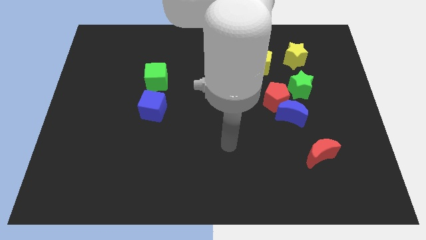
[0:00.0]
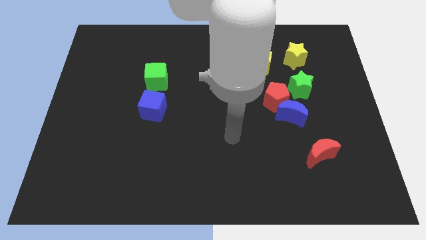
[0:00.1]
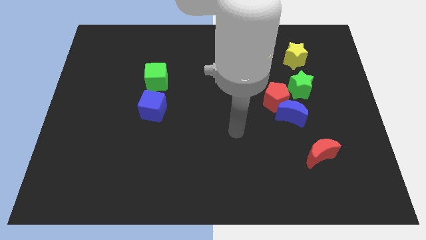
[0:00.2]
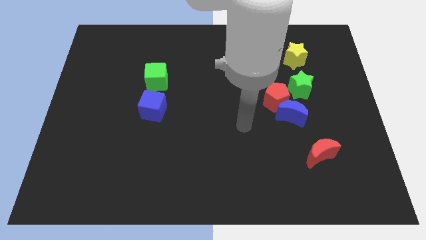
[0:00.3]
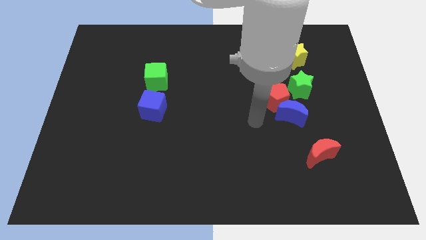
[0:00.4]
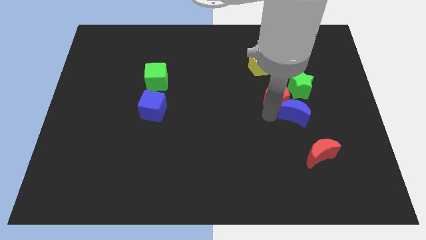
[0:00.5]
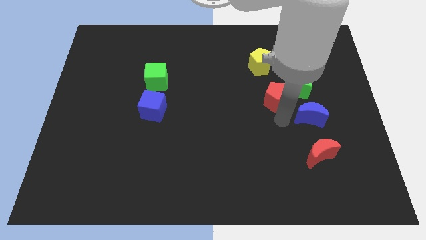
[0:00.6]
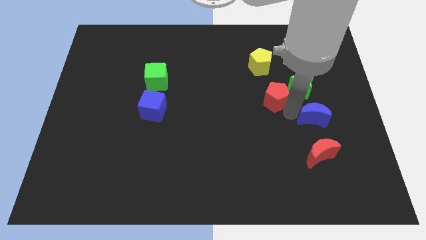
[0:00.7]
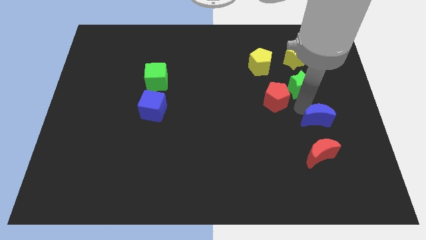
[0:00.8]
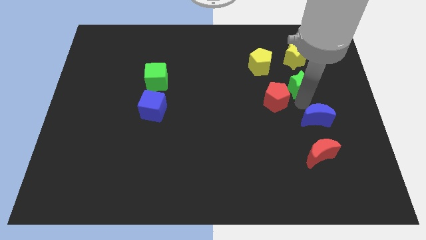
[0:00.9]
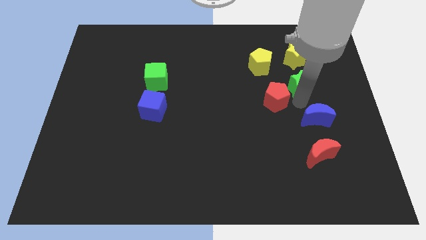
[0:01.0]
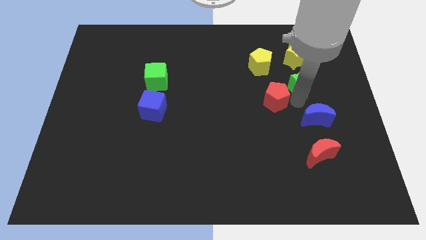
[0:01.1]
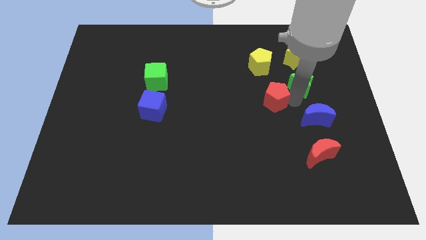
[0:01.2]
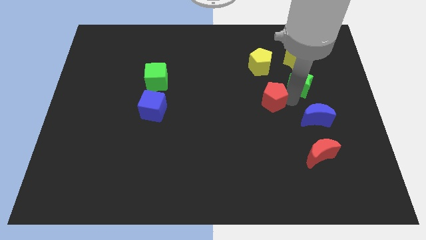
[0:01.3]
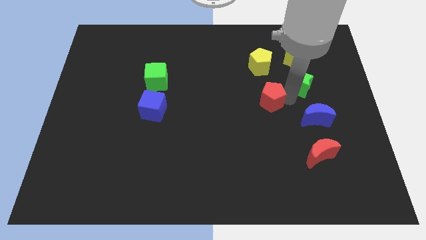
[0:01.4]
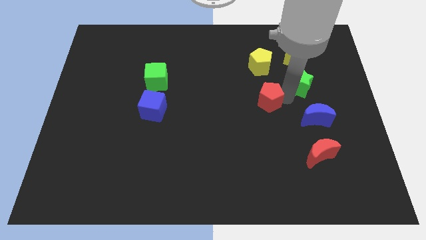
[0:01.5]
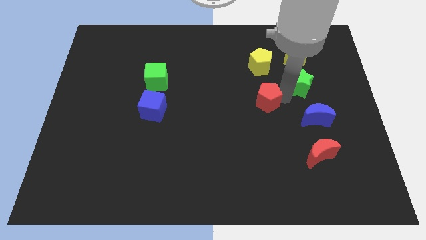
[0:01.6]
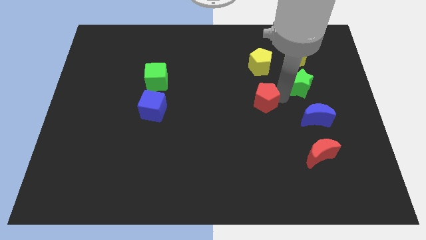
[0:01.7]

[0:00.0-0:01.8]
separate the red pentagon from the blue moon and green star

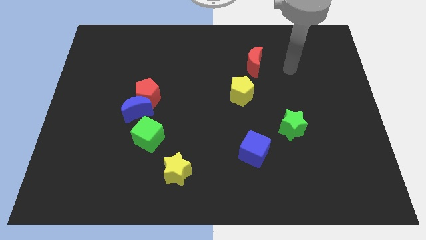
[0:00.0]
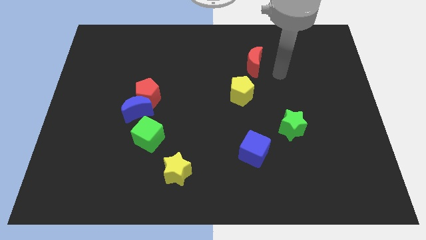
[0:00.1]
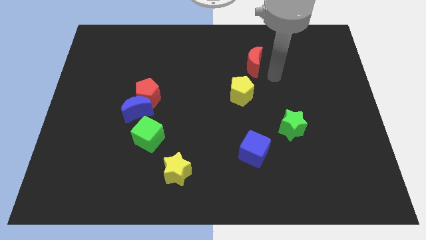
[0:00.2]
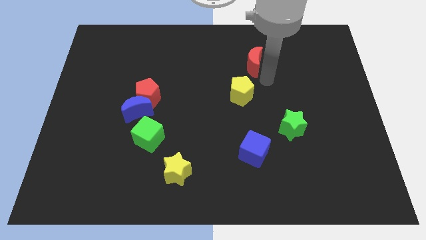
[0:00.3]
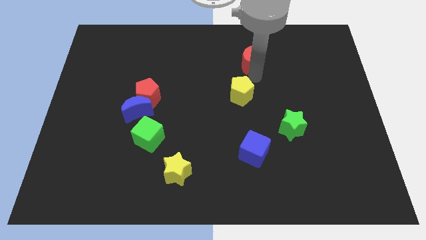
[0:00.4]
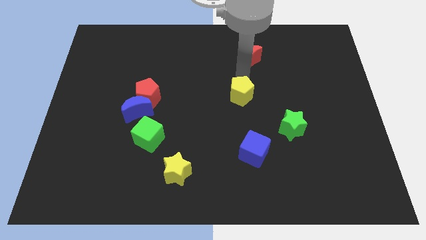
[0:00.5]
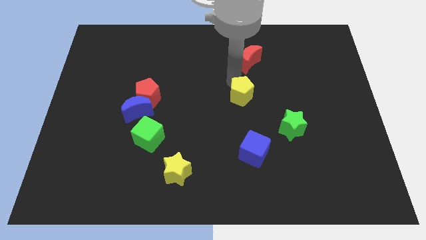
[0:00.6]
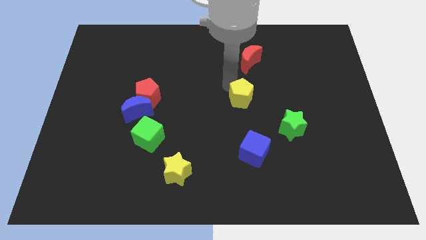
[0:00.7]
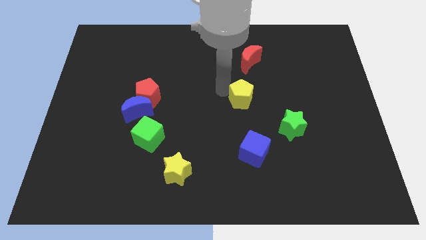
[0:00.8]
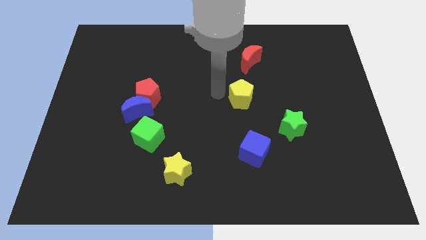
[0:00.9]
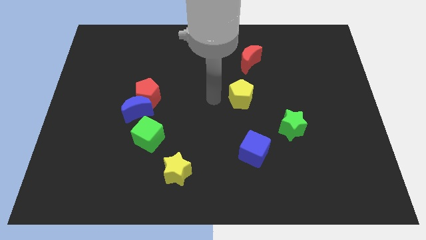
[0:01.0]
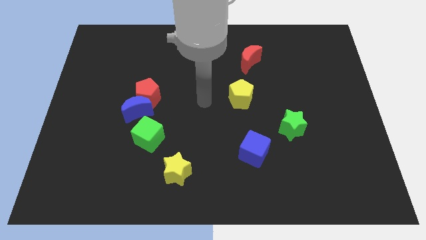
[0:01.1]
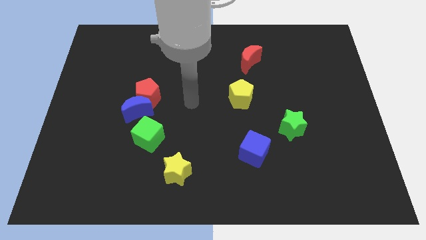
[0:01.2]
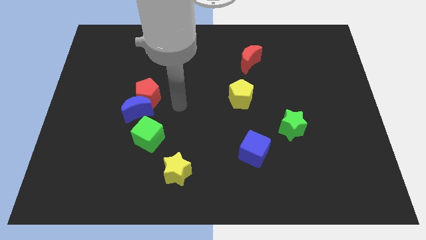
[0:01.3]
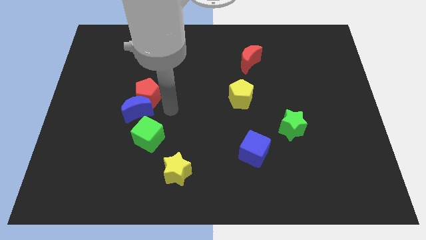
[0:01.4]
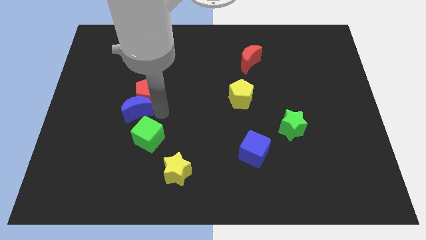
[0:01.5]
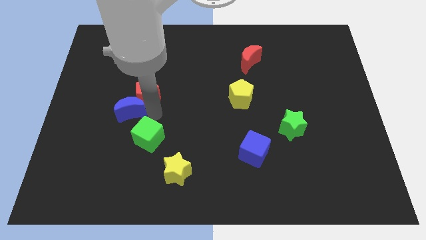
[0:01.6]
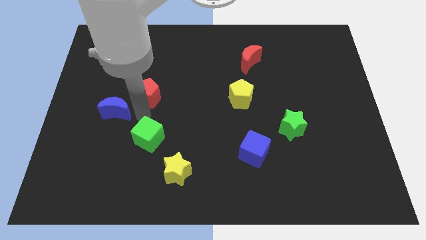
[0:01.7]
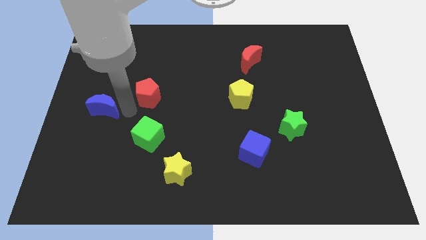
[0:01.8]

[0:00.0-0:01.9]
pull the red pentagon apart from the blue moon

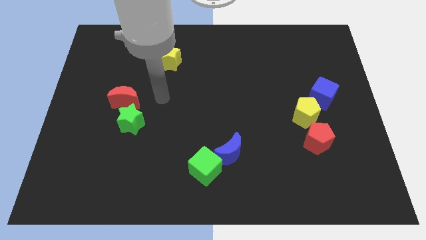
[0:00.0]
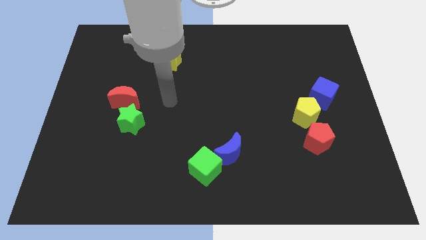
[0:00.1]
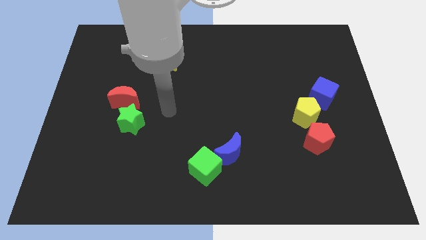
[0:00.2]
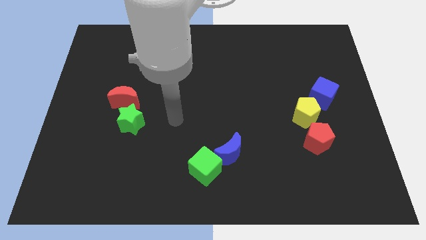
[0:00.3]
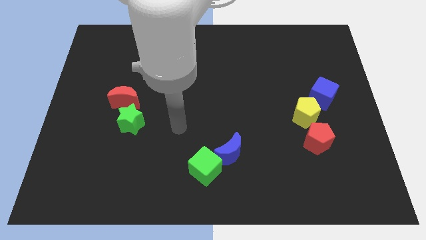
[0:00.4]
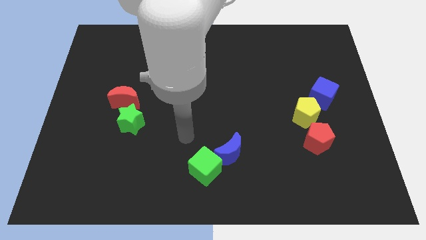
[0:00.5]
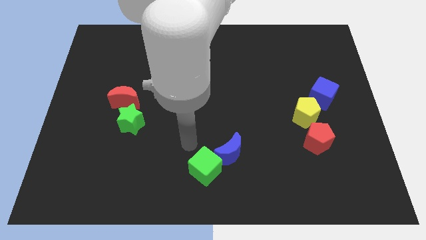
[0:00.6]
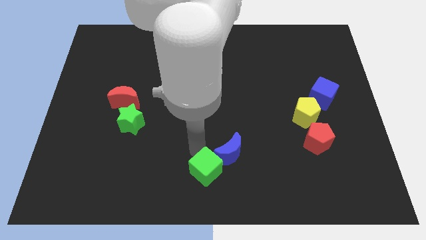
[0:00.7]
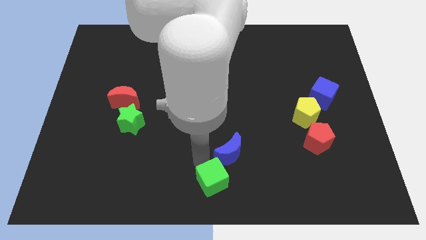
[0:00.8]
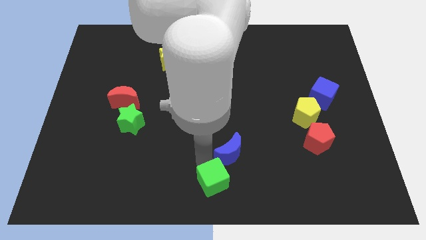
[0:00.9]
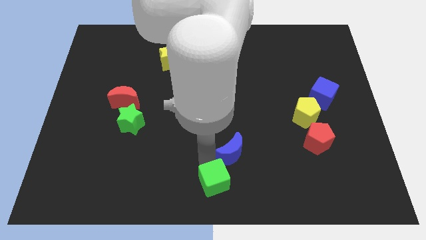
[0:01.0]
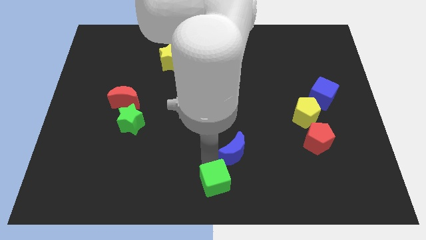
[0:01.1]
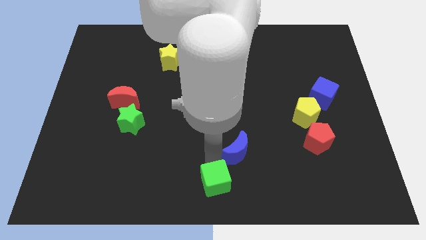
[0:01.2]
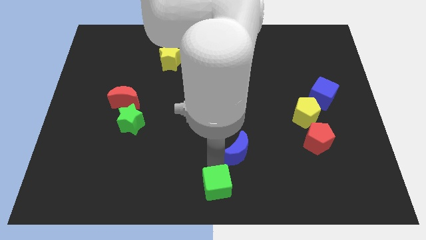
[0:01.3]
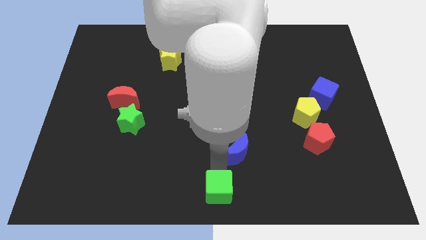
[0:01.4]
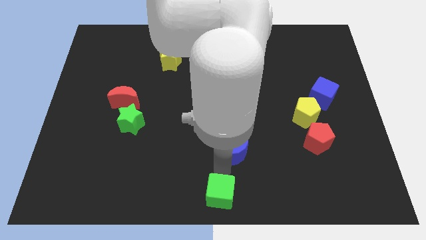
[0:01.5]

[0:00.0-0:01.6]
separate the blue moon from the green cube

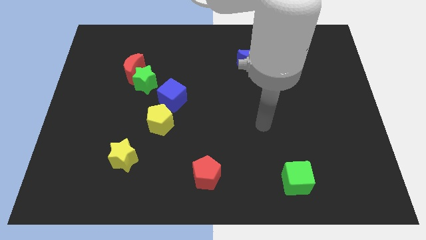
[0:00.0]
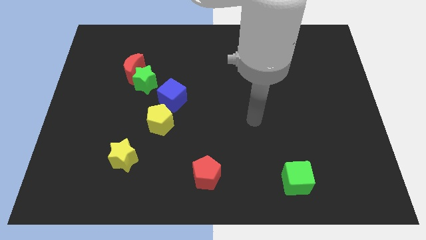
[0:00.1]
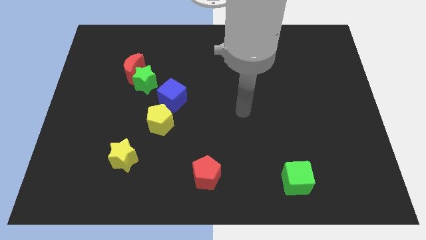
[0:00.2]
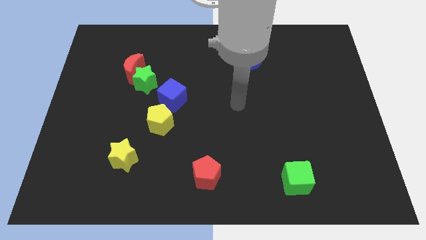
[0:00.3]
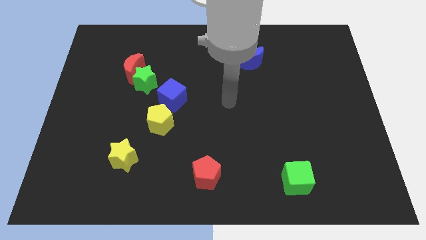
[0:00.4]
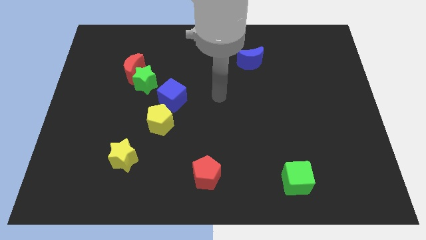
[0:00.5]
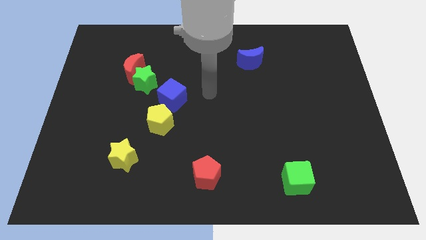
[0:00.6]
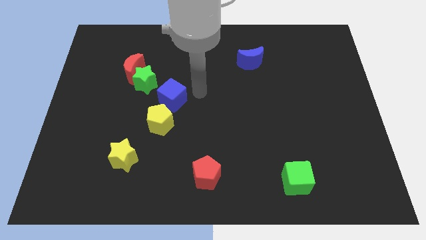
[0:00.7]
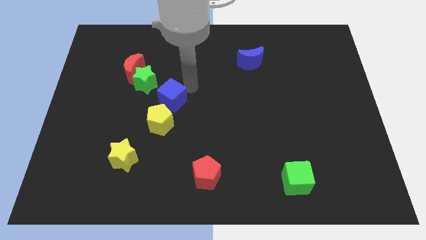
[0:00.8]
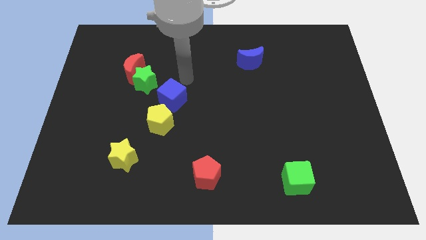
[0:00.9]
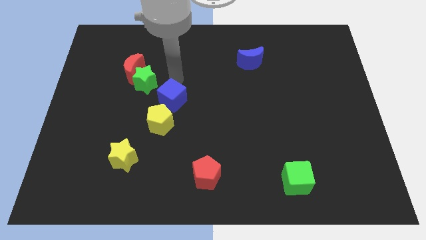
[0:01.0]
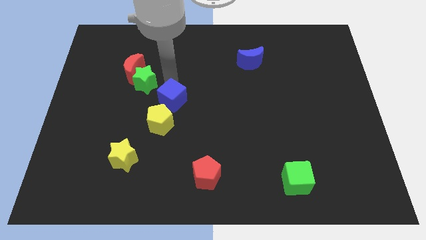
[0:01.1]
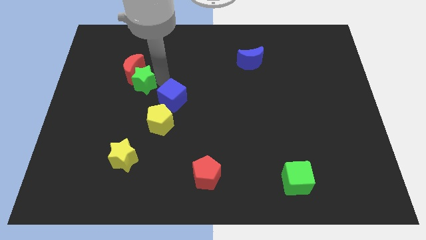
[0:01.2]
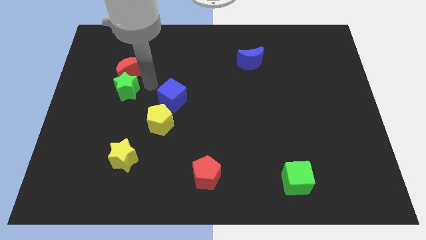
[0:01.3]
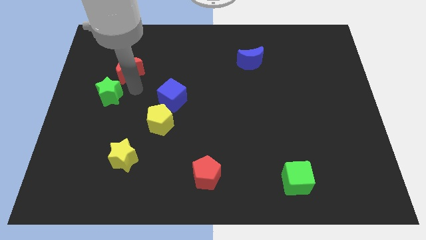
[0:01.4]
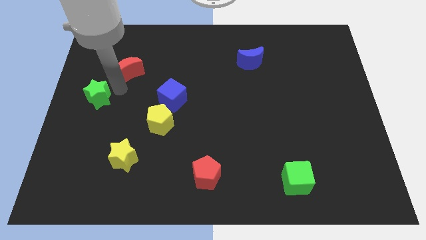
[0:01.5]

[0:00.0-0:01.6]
pull the red moon apart from the green star

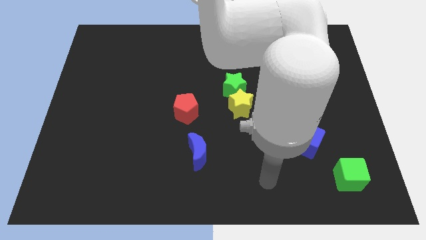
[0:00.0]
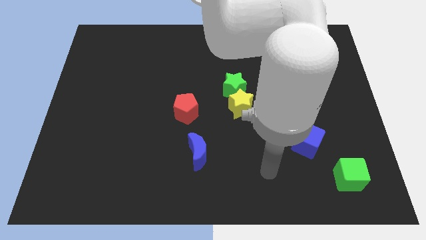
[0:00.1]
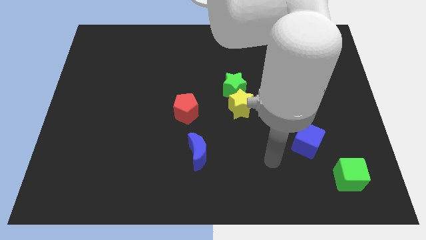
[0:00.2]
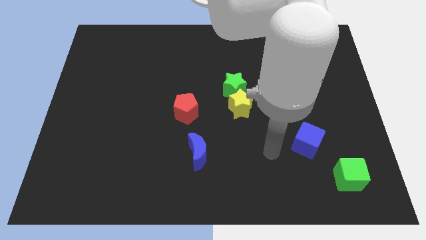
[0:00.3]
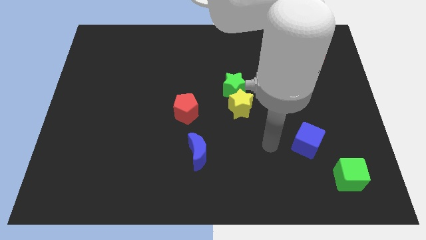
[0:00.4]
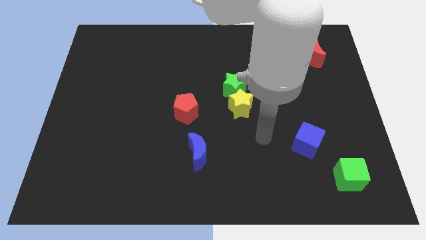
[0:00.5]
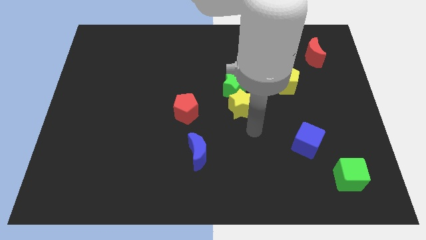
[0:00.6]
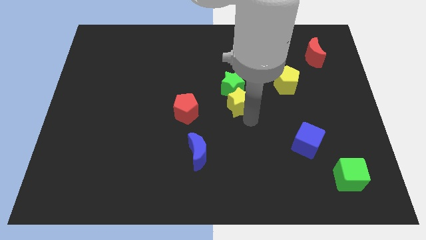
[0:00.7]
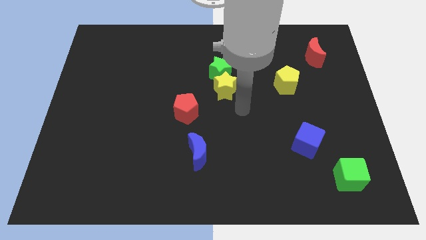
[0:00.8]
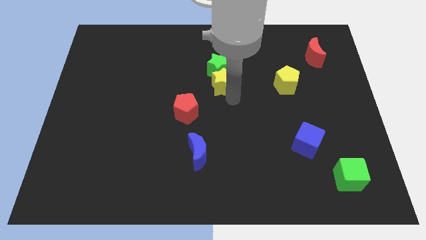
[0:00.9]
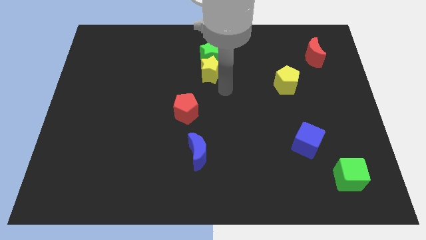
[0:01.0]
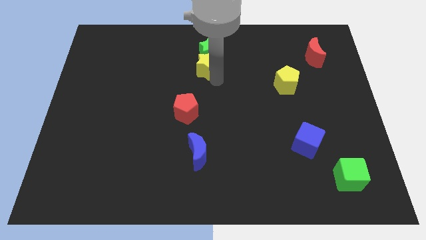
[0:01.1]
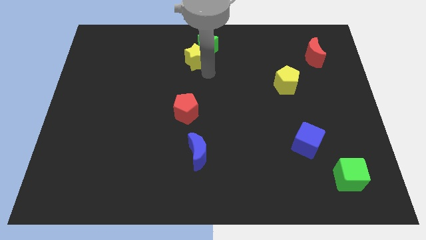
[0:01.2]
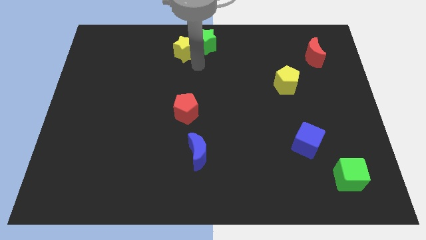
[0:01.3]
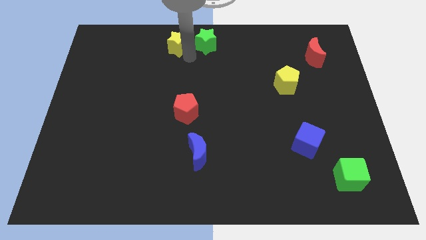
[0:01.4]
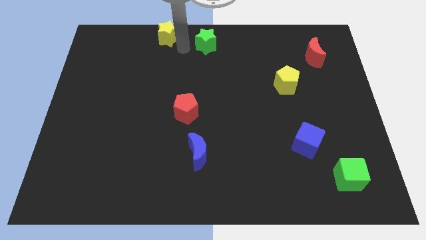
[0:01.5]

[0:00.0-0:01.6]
pull the green star apart from the yellow star

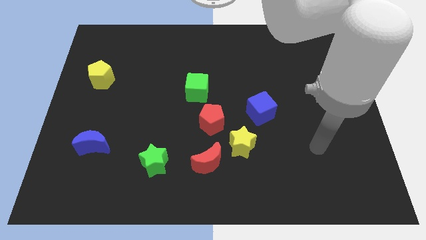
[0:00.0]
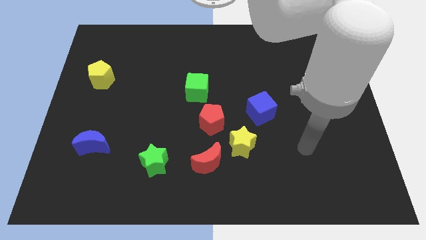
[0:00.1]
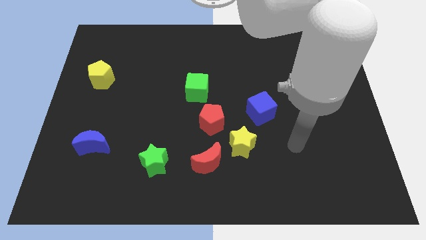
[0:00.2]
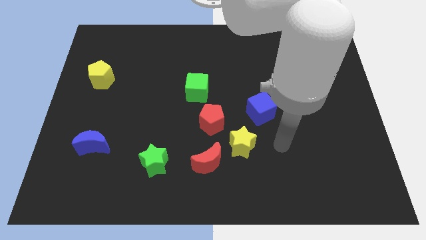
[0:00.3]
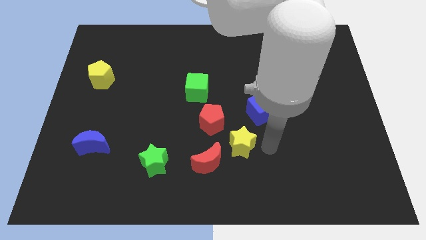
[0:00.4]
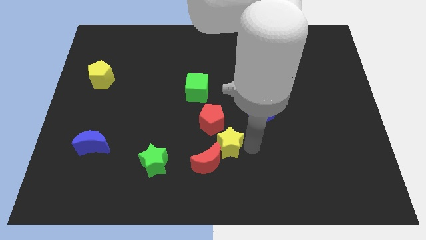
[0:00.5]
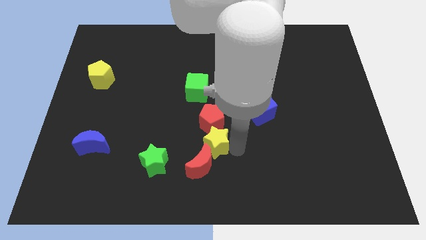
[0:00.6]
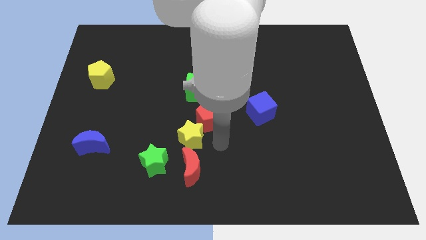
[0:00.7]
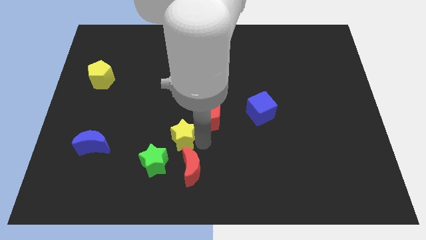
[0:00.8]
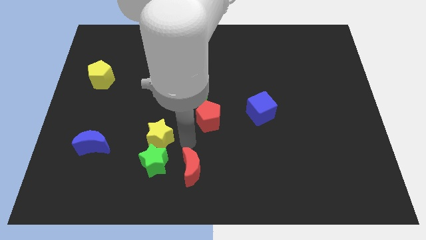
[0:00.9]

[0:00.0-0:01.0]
move the red moon away from the yellow star
